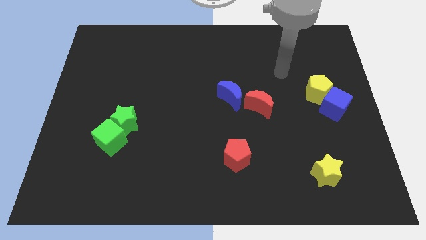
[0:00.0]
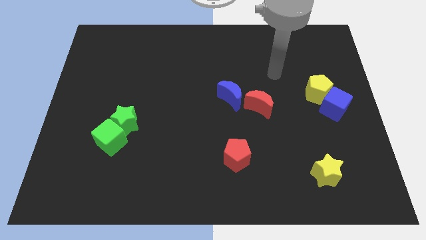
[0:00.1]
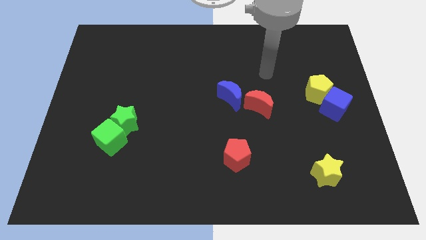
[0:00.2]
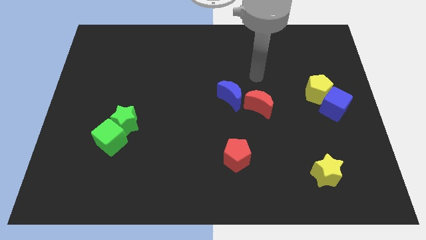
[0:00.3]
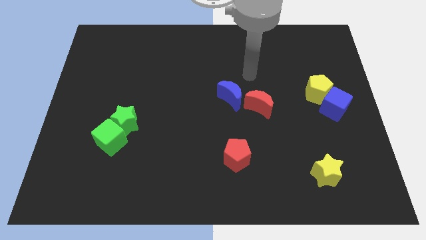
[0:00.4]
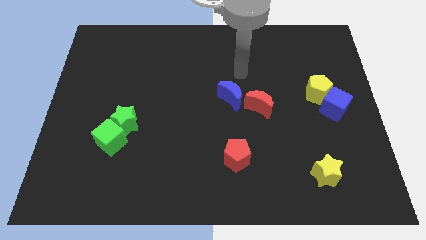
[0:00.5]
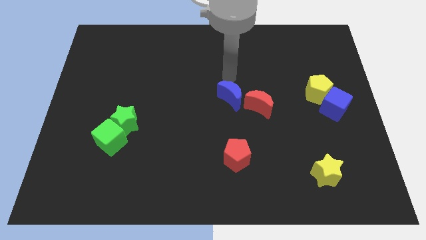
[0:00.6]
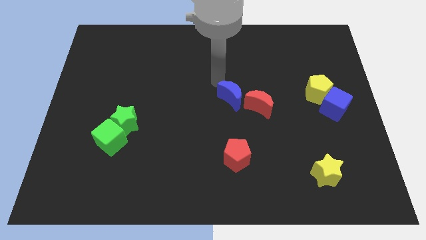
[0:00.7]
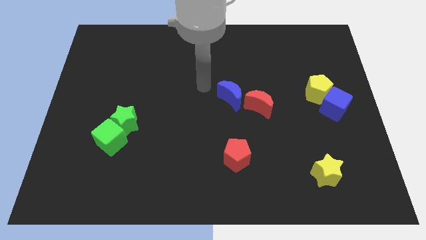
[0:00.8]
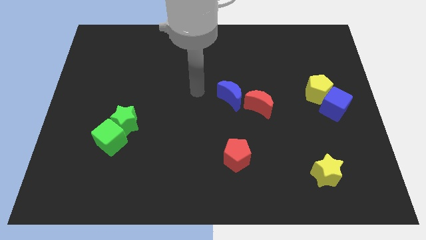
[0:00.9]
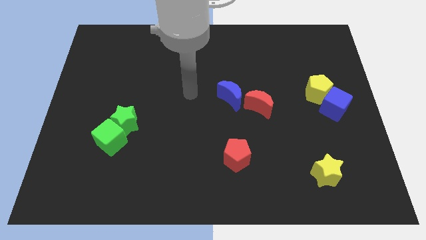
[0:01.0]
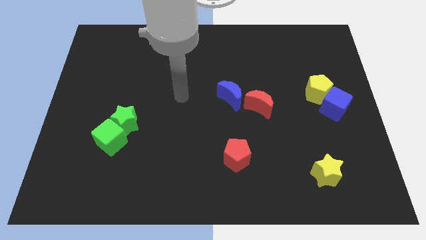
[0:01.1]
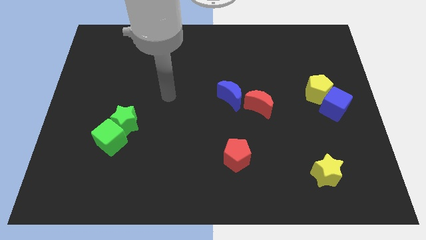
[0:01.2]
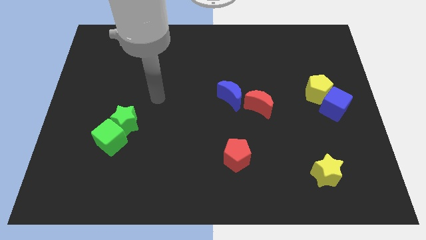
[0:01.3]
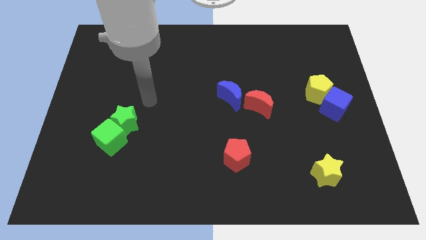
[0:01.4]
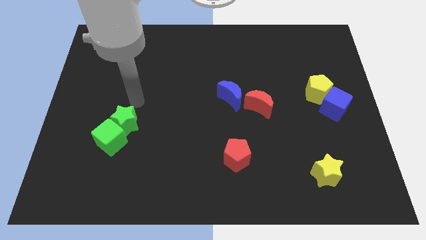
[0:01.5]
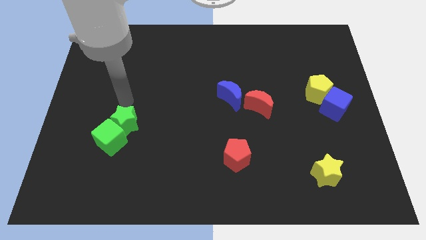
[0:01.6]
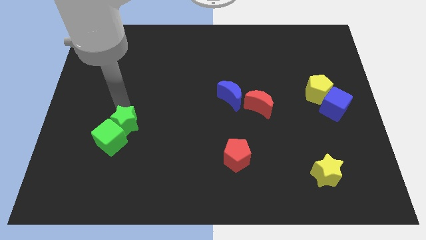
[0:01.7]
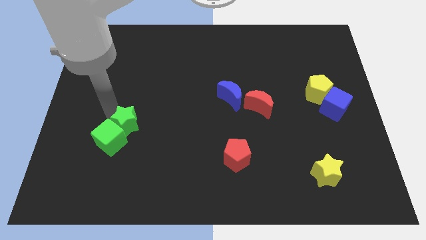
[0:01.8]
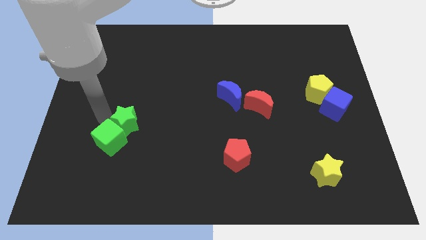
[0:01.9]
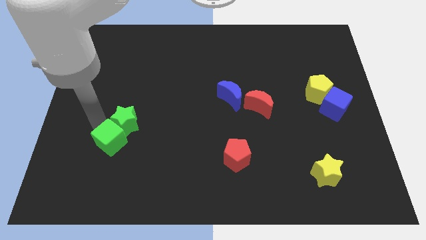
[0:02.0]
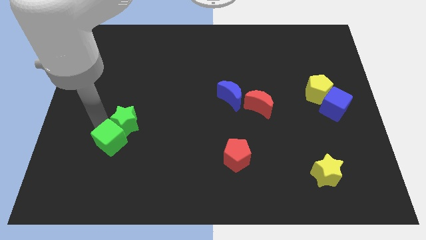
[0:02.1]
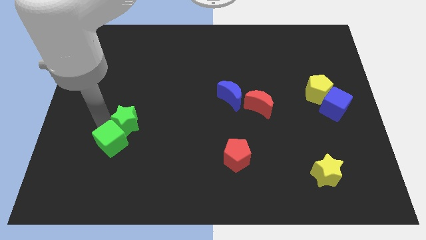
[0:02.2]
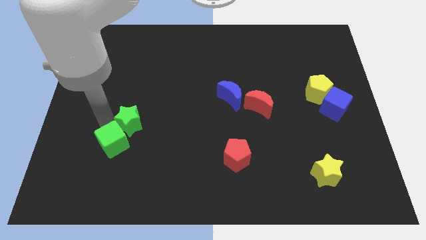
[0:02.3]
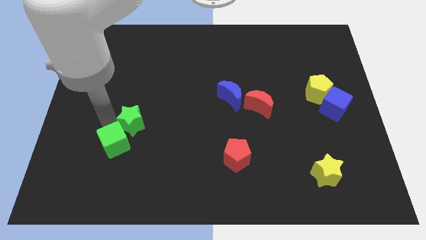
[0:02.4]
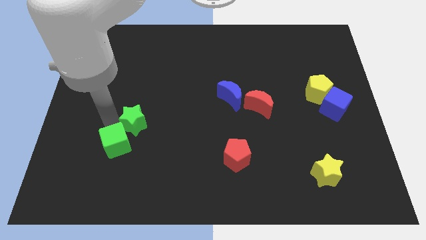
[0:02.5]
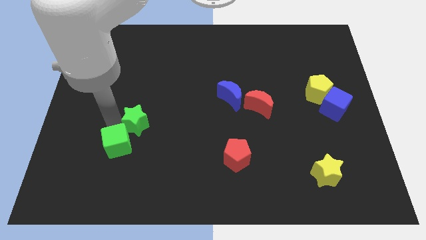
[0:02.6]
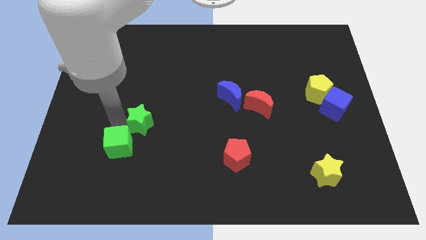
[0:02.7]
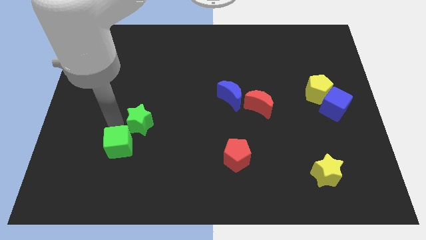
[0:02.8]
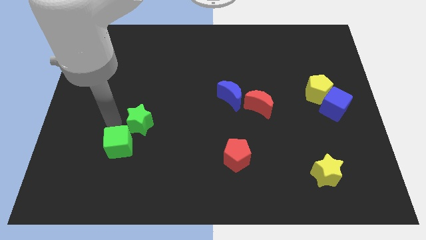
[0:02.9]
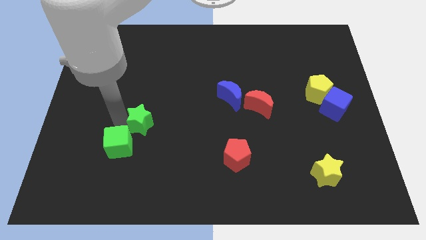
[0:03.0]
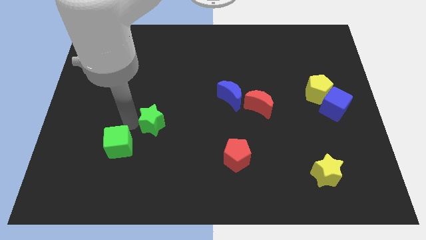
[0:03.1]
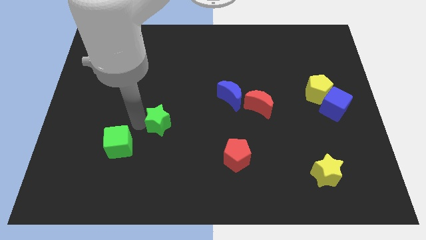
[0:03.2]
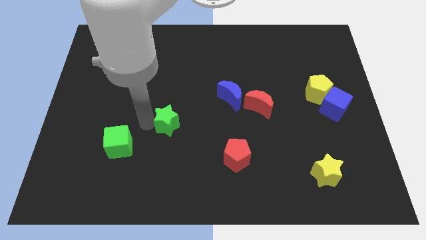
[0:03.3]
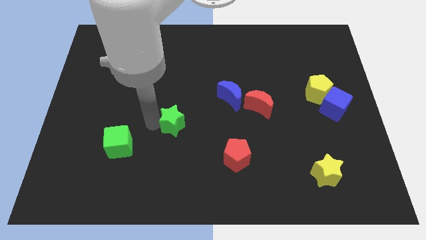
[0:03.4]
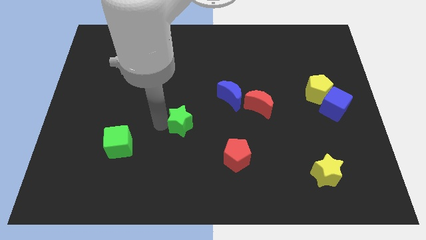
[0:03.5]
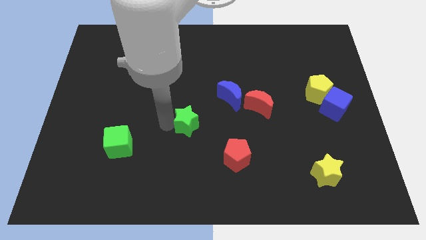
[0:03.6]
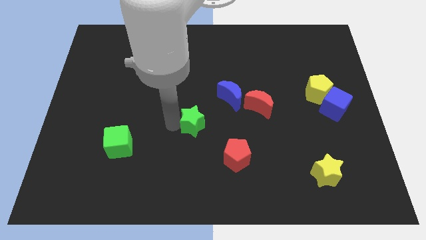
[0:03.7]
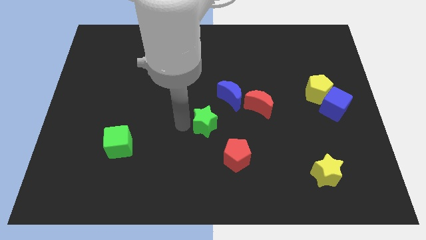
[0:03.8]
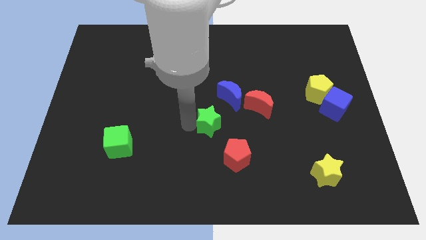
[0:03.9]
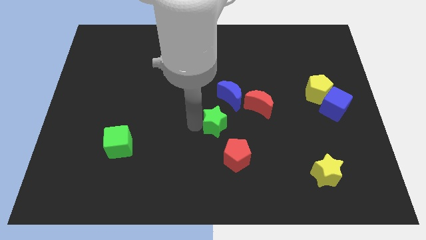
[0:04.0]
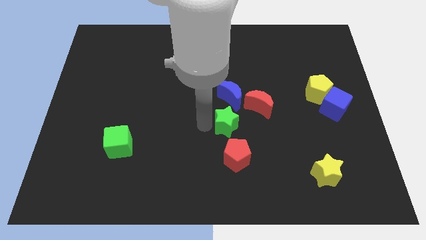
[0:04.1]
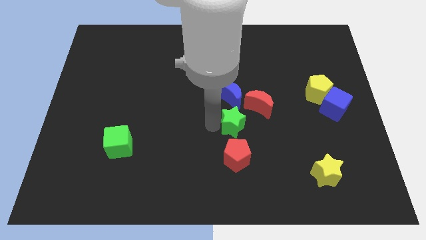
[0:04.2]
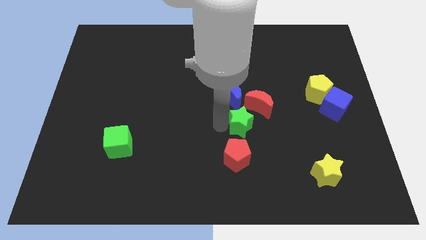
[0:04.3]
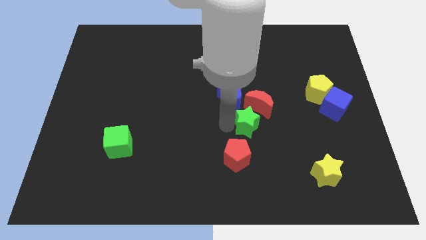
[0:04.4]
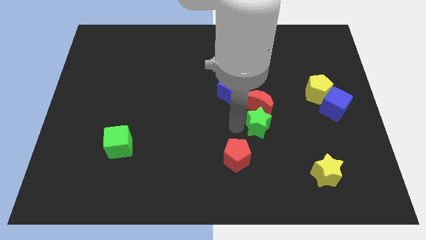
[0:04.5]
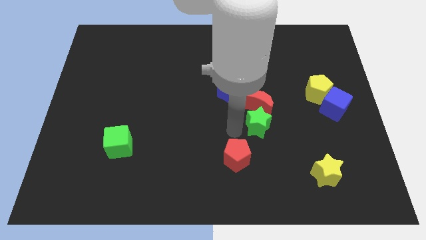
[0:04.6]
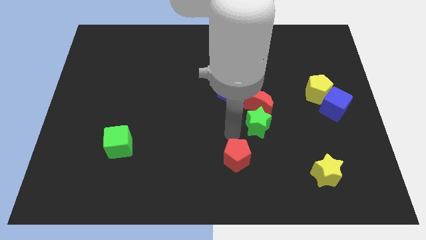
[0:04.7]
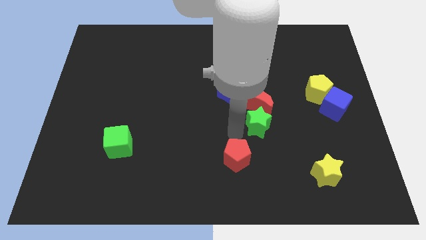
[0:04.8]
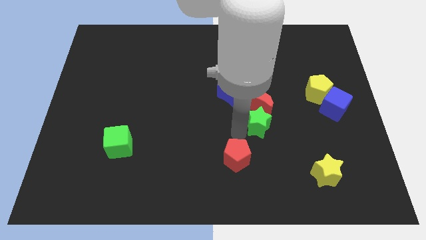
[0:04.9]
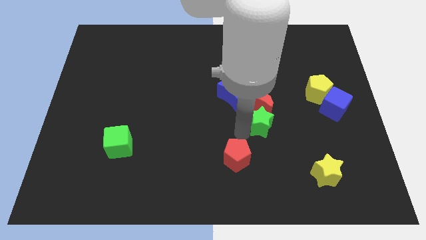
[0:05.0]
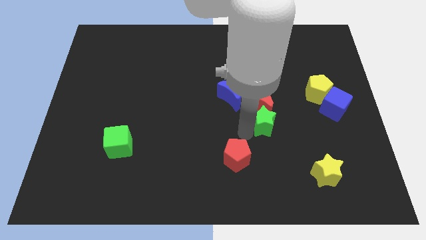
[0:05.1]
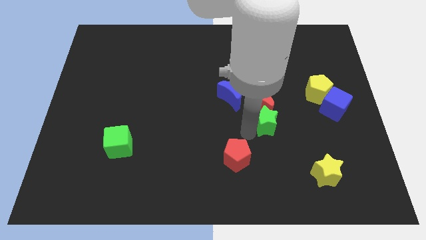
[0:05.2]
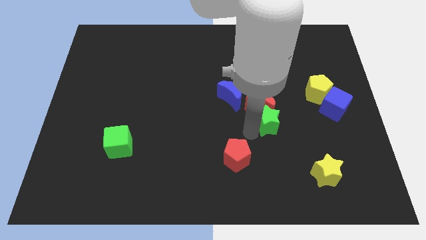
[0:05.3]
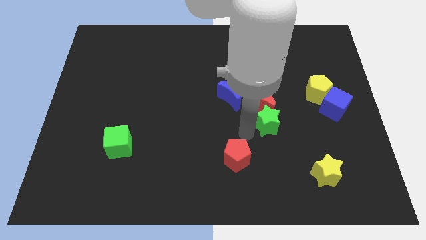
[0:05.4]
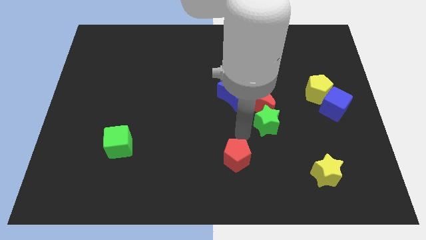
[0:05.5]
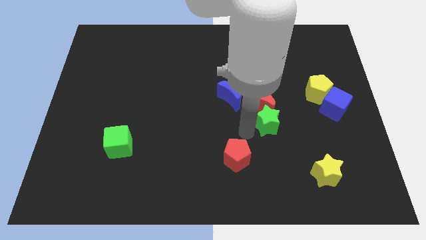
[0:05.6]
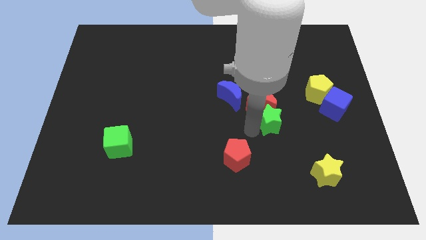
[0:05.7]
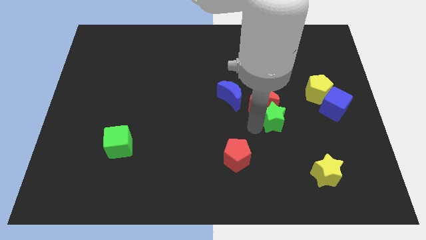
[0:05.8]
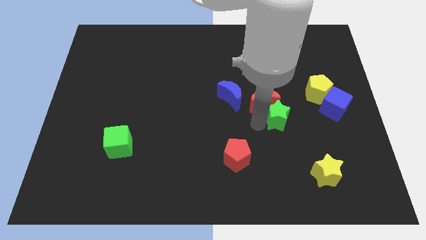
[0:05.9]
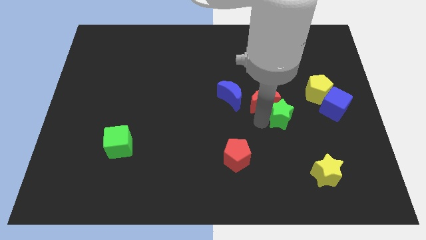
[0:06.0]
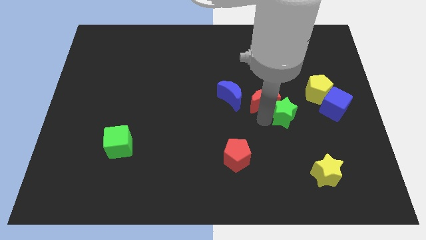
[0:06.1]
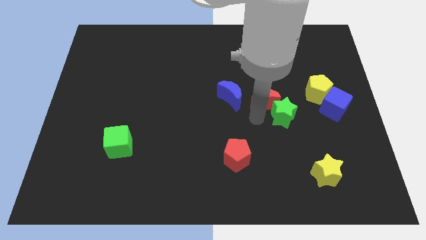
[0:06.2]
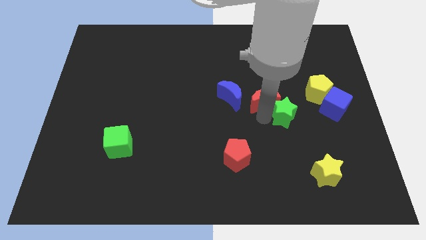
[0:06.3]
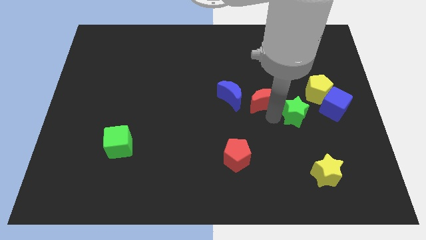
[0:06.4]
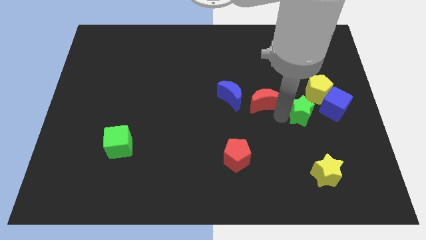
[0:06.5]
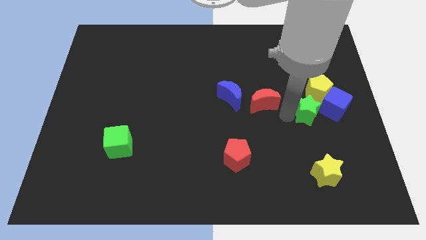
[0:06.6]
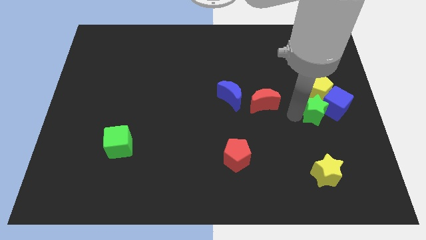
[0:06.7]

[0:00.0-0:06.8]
put the green star close to the blue cube

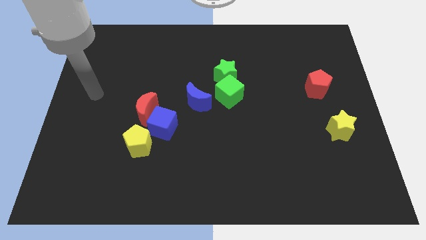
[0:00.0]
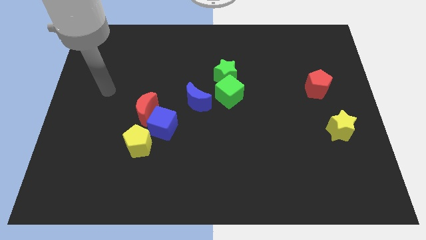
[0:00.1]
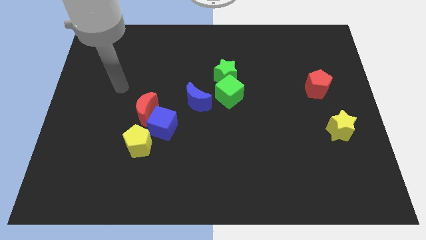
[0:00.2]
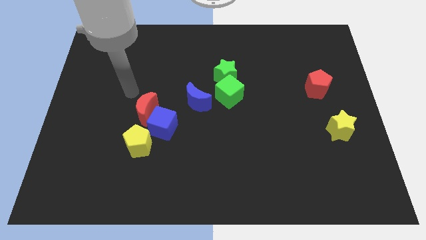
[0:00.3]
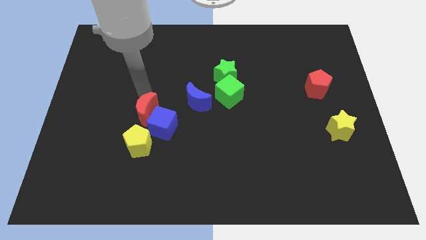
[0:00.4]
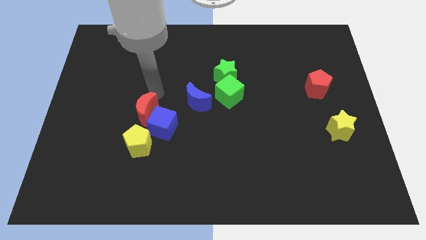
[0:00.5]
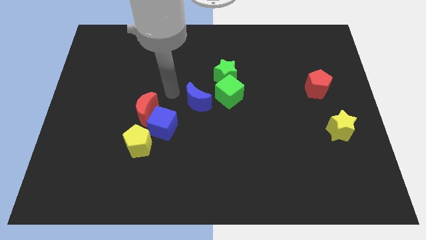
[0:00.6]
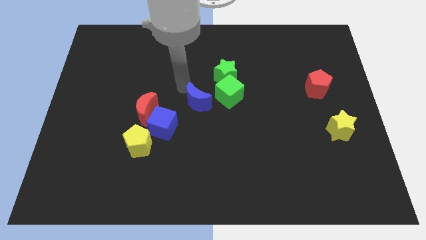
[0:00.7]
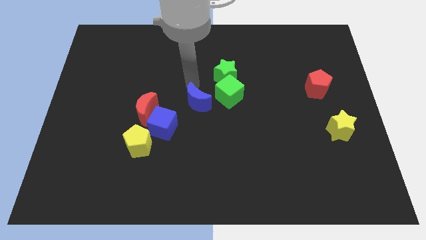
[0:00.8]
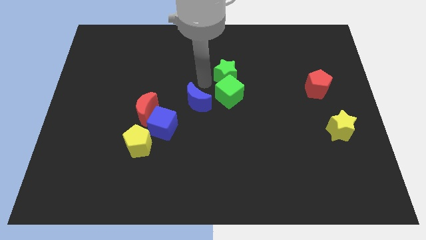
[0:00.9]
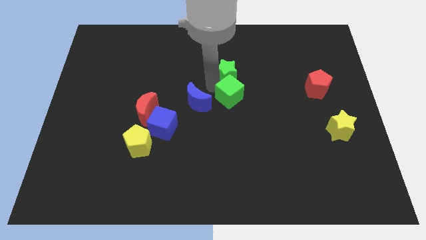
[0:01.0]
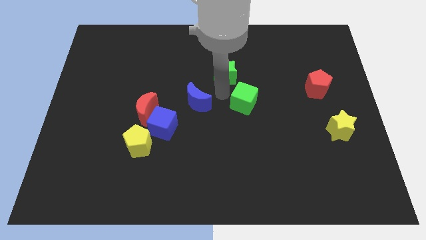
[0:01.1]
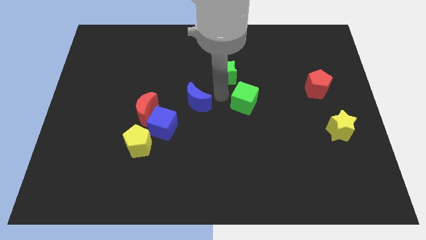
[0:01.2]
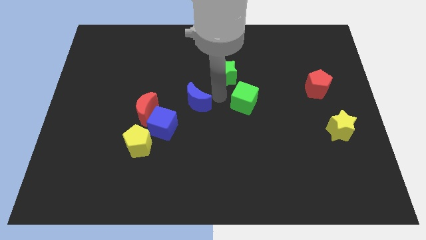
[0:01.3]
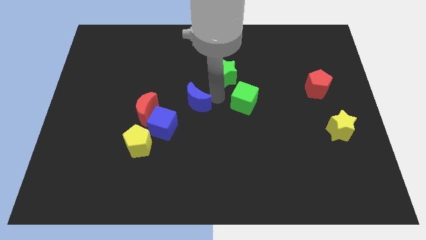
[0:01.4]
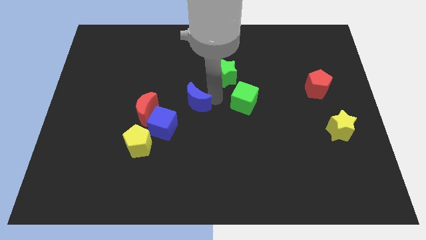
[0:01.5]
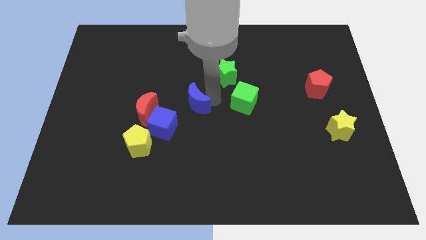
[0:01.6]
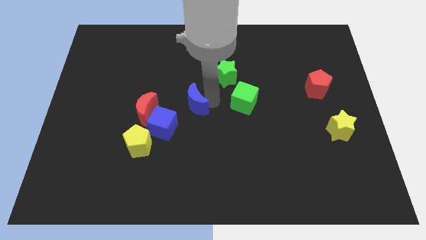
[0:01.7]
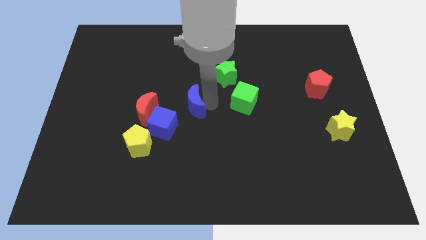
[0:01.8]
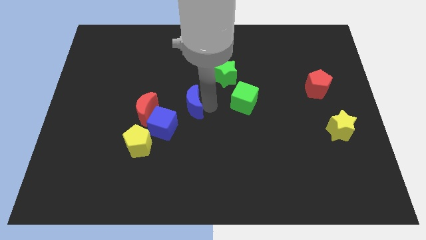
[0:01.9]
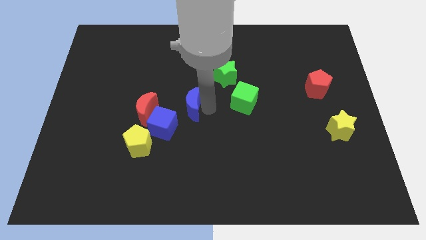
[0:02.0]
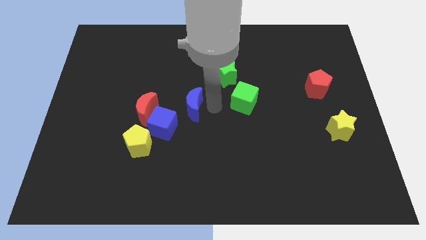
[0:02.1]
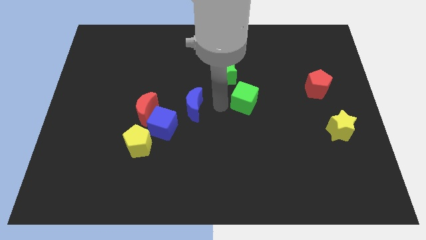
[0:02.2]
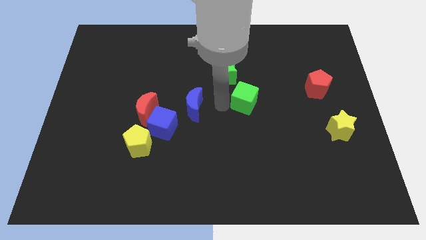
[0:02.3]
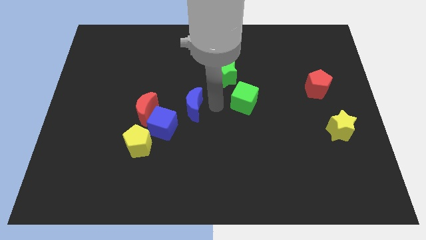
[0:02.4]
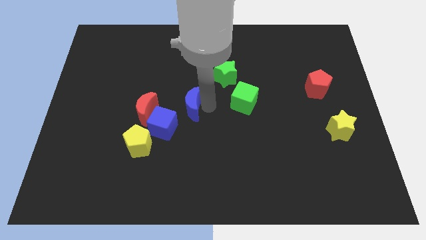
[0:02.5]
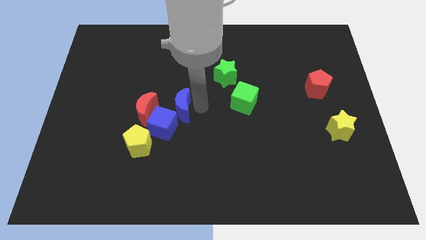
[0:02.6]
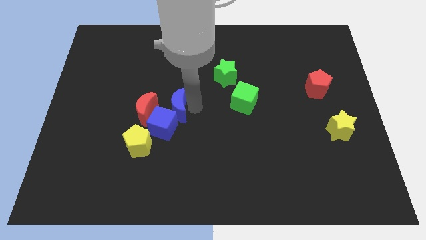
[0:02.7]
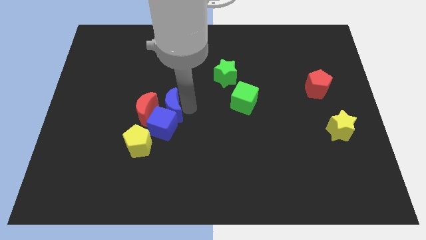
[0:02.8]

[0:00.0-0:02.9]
put the blue moon next to the red moon
